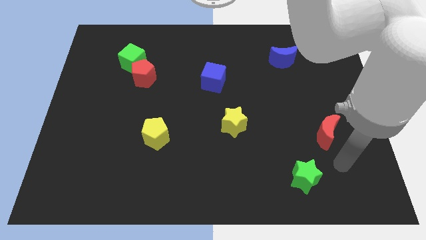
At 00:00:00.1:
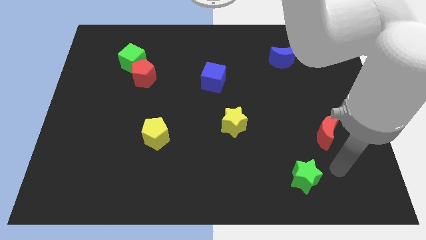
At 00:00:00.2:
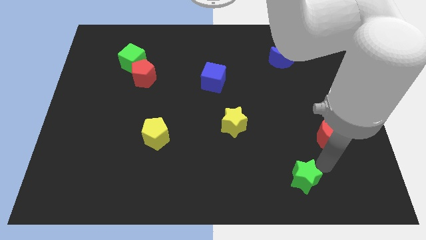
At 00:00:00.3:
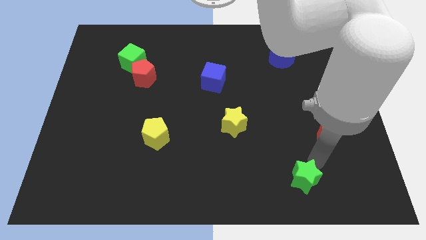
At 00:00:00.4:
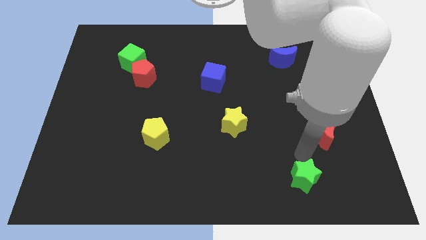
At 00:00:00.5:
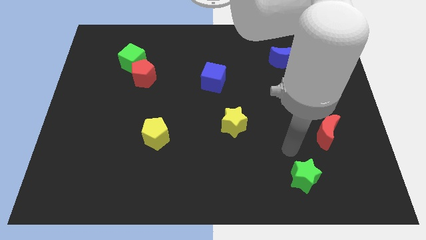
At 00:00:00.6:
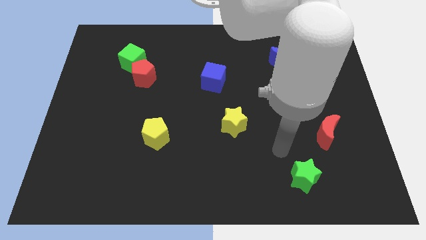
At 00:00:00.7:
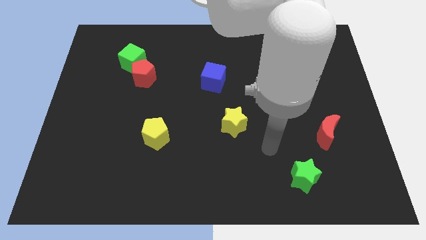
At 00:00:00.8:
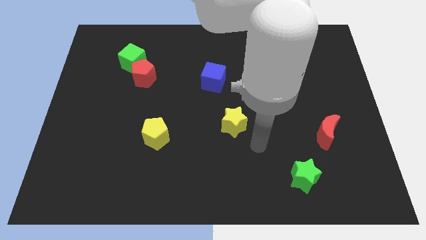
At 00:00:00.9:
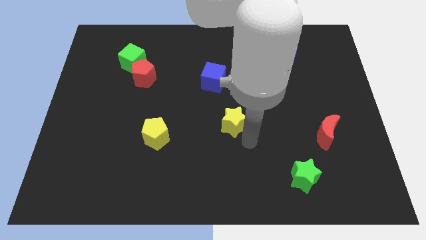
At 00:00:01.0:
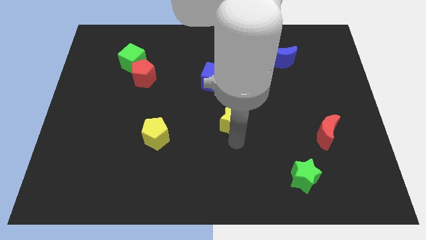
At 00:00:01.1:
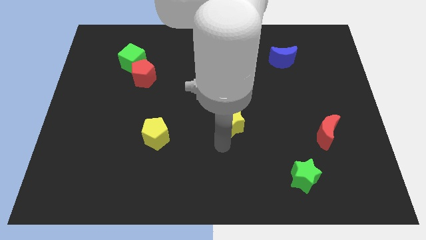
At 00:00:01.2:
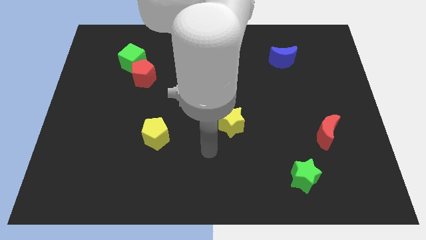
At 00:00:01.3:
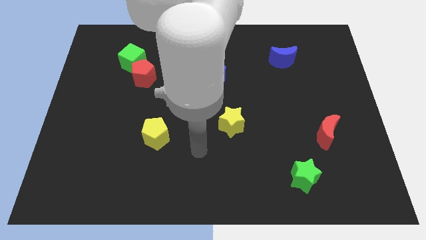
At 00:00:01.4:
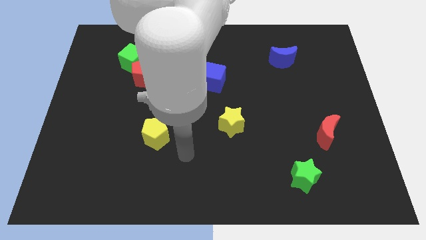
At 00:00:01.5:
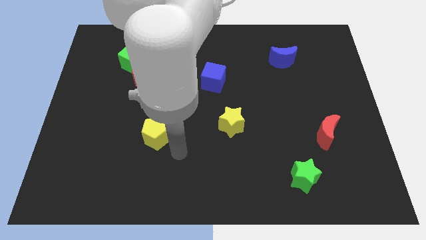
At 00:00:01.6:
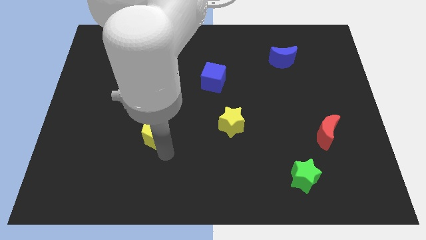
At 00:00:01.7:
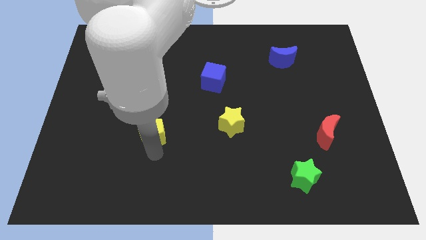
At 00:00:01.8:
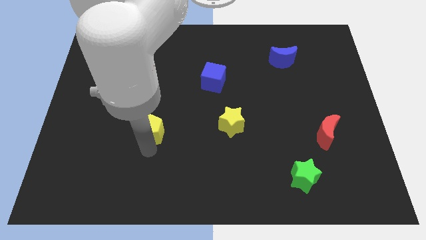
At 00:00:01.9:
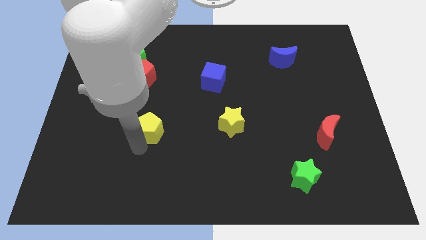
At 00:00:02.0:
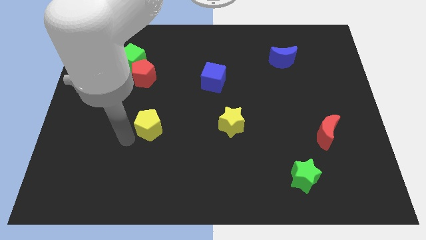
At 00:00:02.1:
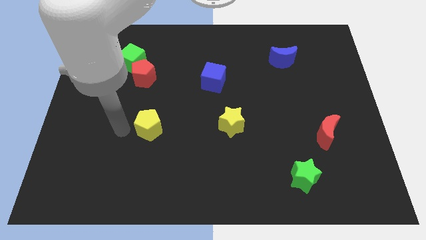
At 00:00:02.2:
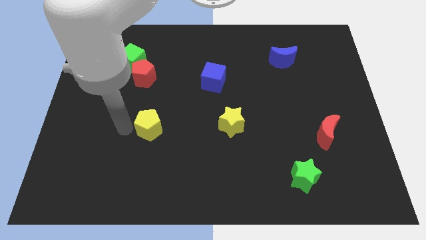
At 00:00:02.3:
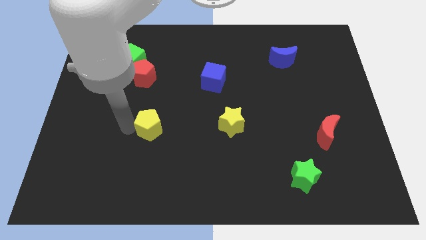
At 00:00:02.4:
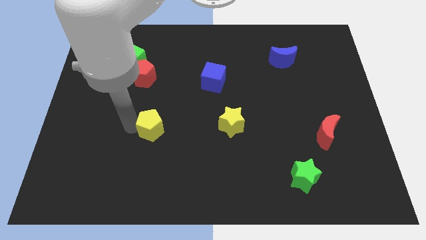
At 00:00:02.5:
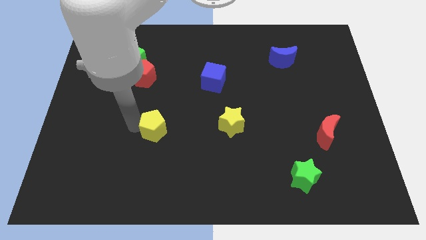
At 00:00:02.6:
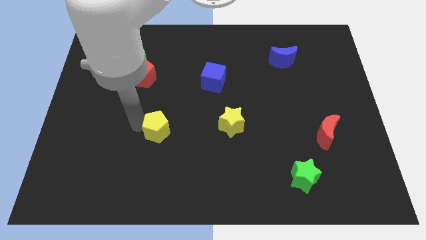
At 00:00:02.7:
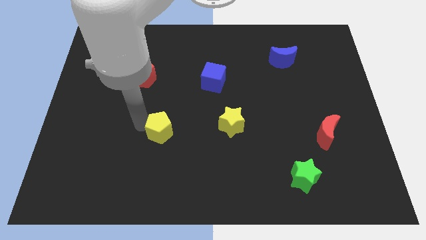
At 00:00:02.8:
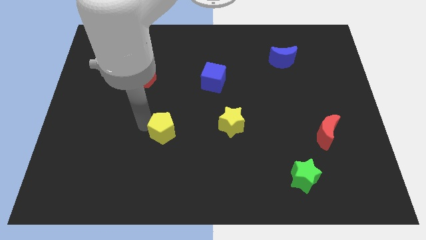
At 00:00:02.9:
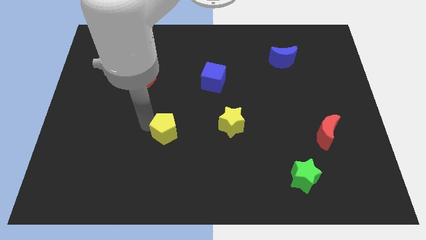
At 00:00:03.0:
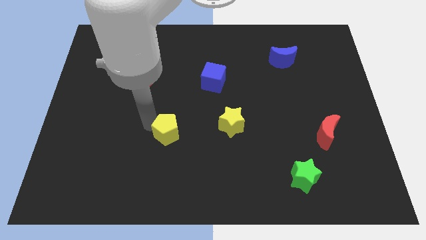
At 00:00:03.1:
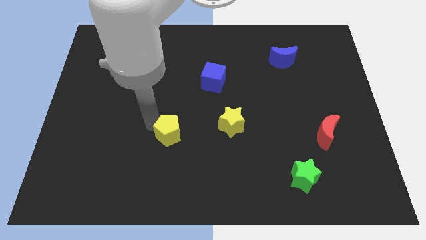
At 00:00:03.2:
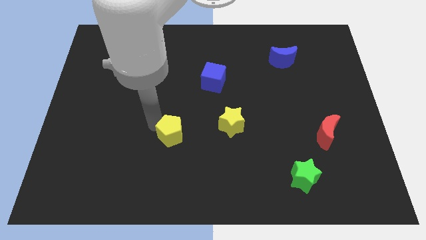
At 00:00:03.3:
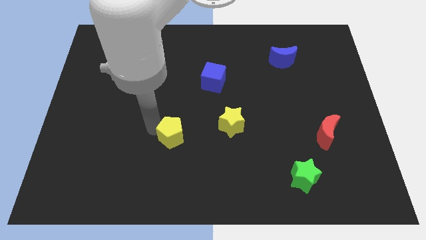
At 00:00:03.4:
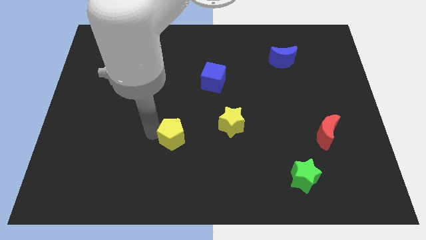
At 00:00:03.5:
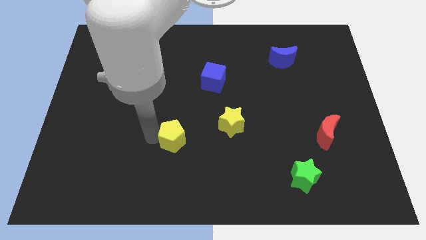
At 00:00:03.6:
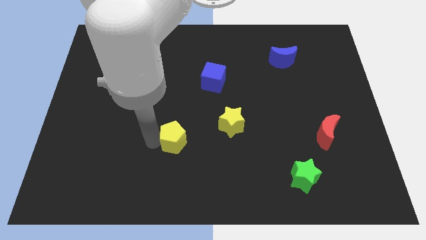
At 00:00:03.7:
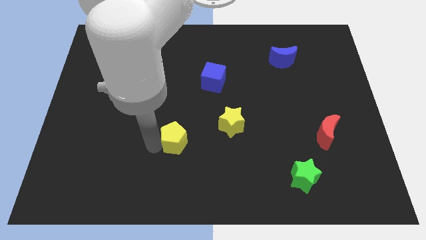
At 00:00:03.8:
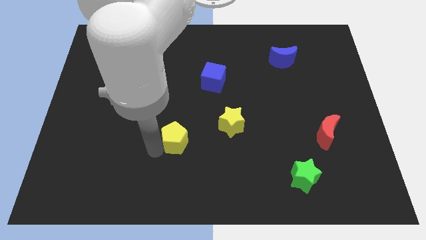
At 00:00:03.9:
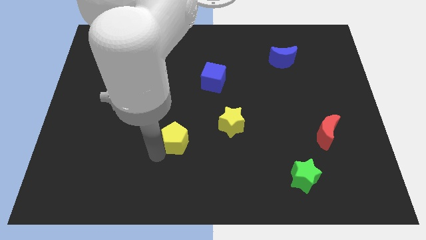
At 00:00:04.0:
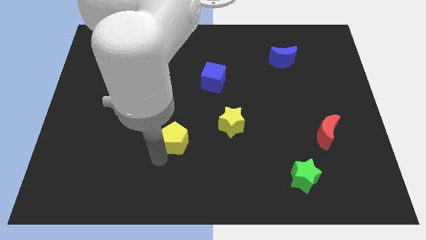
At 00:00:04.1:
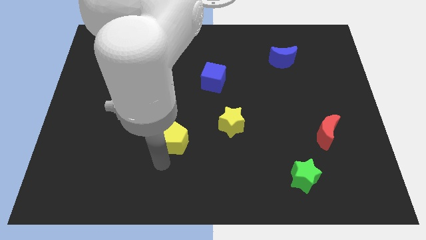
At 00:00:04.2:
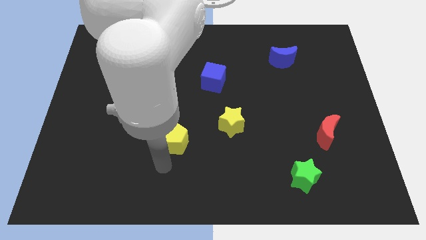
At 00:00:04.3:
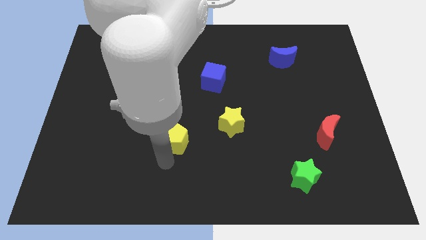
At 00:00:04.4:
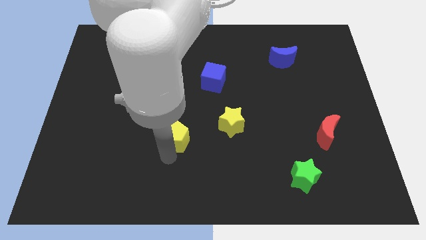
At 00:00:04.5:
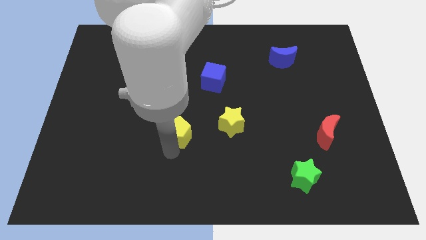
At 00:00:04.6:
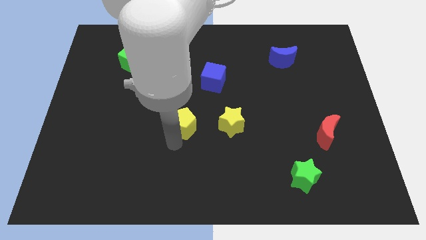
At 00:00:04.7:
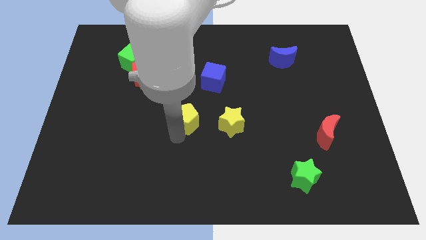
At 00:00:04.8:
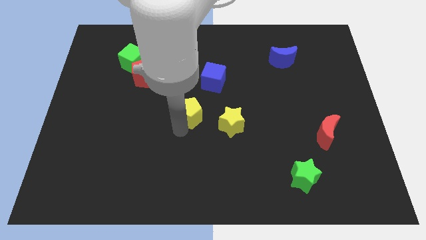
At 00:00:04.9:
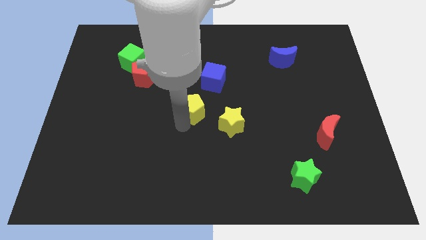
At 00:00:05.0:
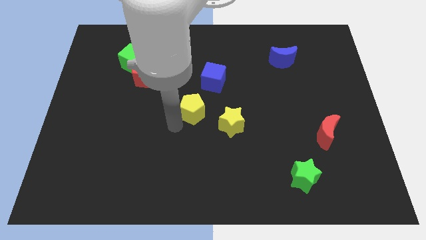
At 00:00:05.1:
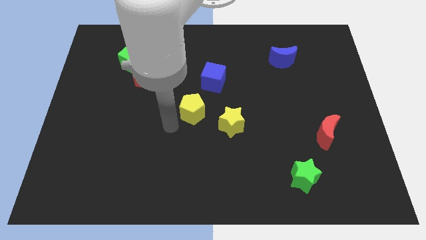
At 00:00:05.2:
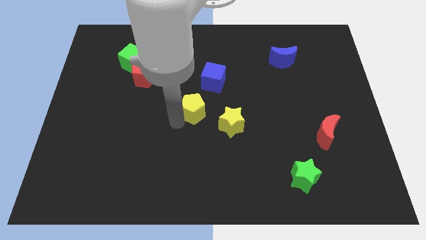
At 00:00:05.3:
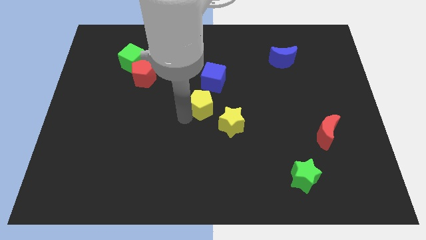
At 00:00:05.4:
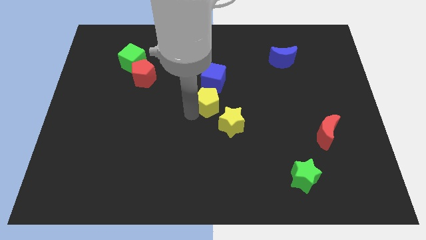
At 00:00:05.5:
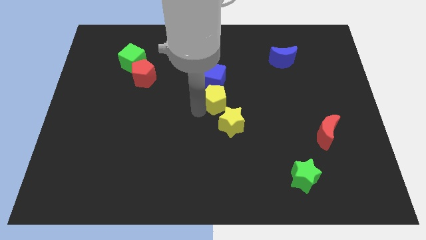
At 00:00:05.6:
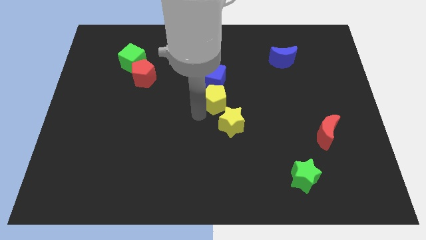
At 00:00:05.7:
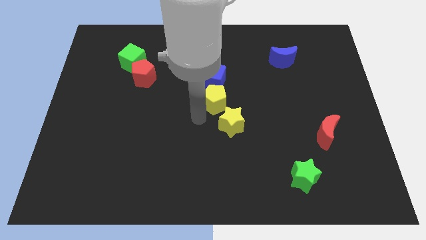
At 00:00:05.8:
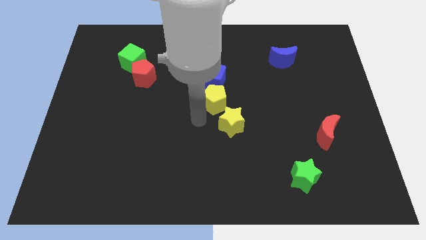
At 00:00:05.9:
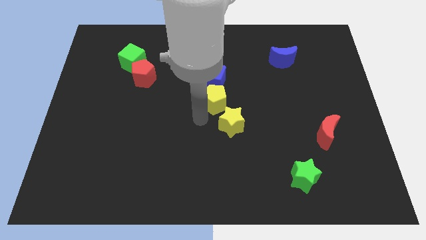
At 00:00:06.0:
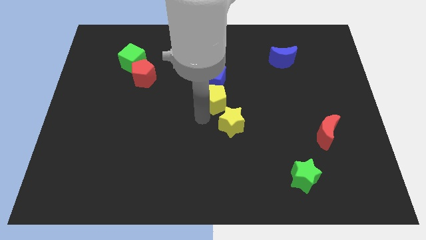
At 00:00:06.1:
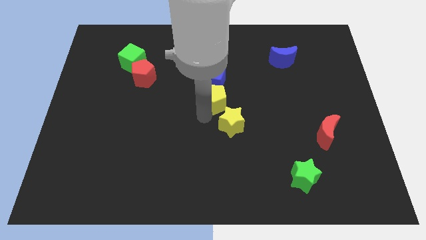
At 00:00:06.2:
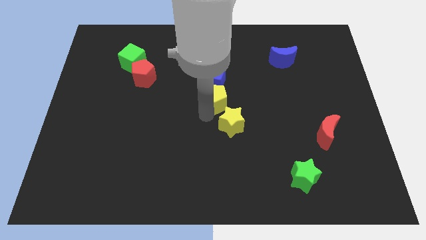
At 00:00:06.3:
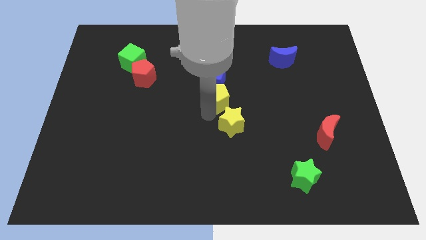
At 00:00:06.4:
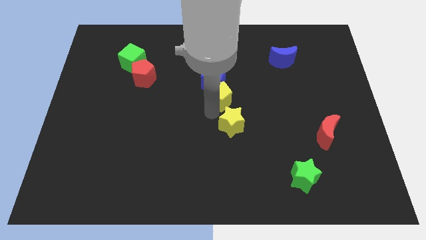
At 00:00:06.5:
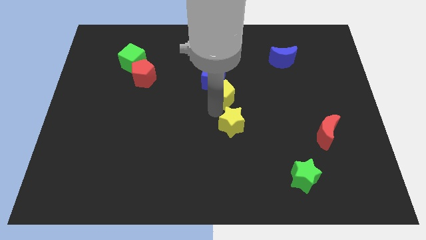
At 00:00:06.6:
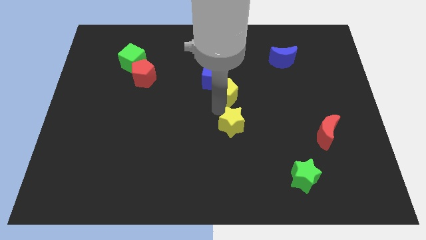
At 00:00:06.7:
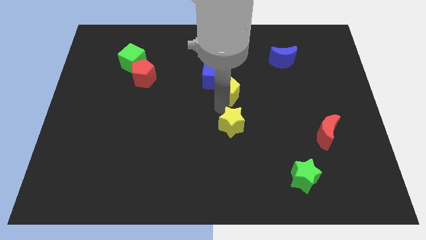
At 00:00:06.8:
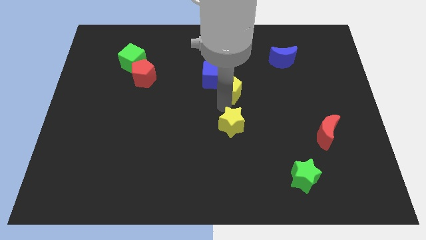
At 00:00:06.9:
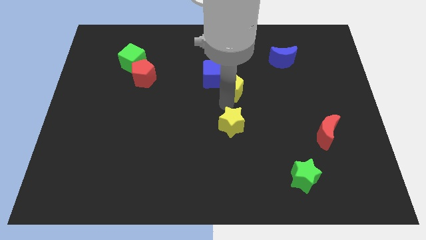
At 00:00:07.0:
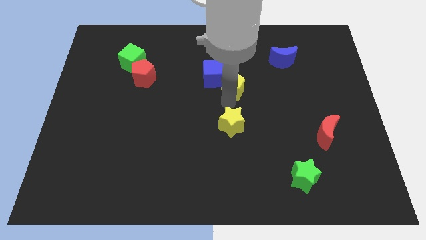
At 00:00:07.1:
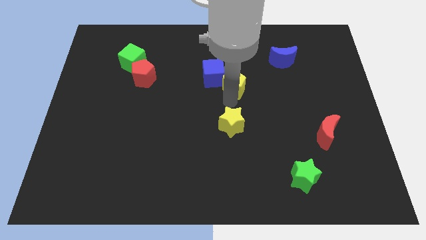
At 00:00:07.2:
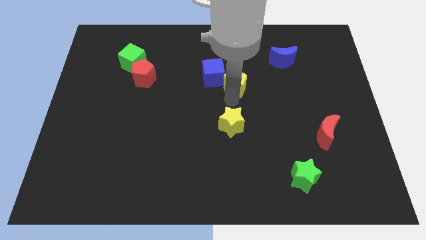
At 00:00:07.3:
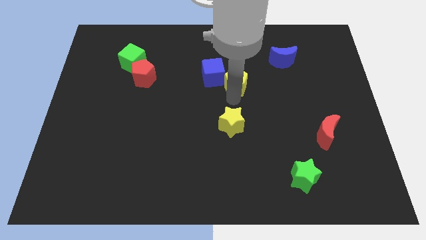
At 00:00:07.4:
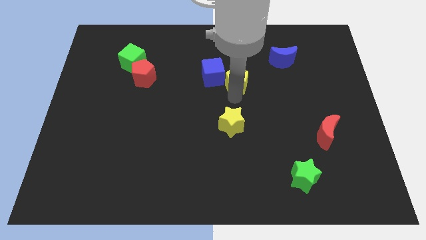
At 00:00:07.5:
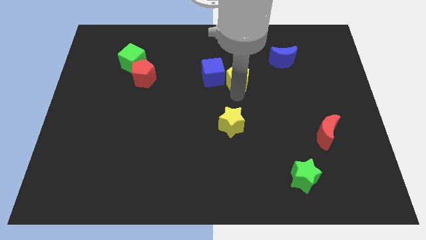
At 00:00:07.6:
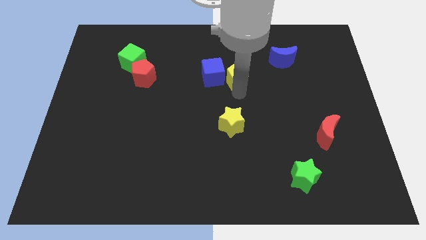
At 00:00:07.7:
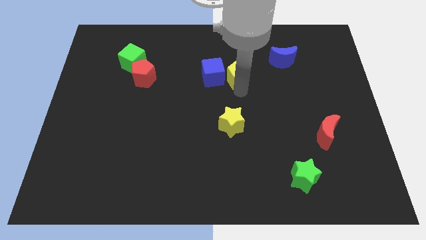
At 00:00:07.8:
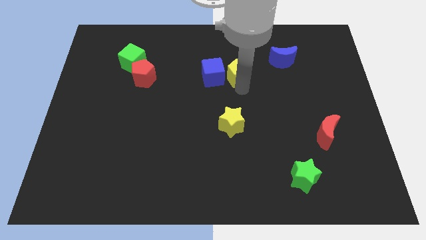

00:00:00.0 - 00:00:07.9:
push the yellow pentagon to the top right of the blue cube
